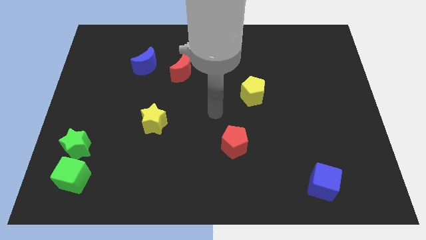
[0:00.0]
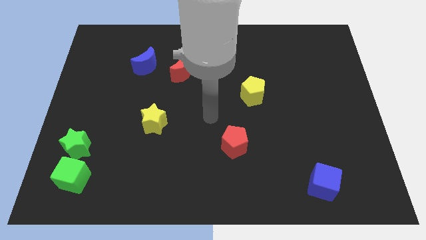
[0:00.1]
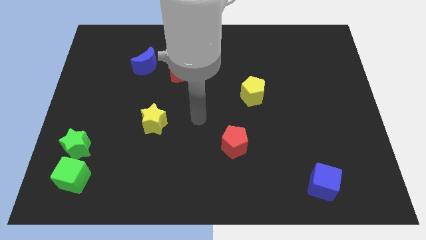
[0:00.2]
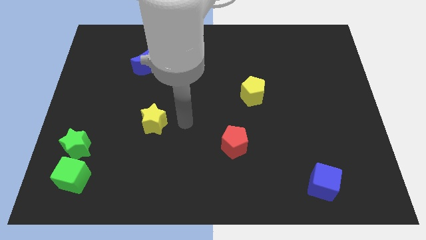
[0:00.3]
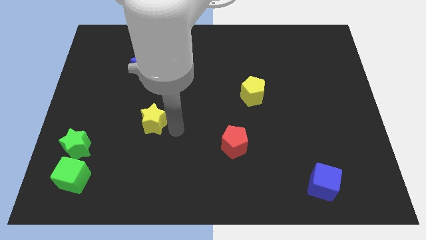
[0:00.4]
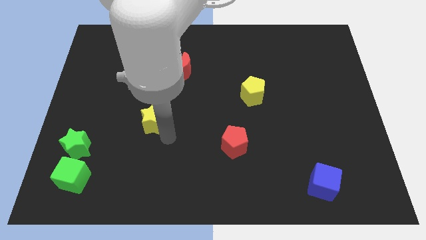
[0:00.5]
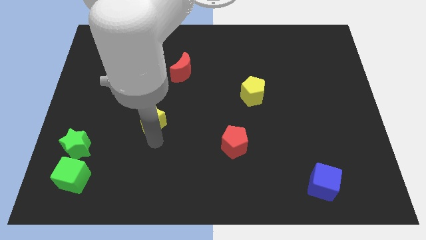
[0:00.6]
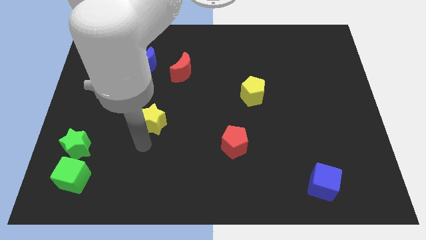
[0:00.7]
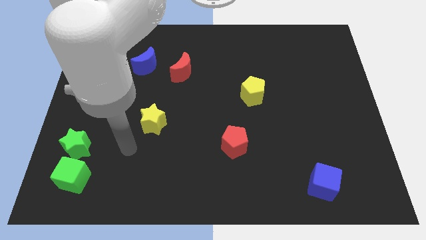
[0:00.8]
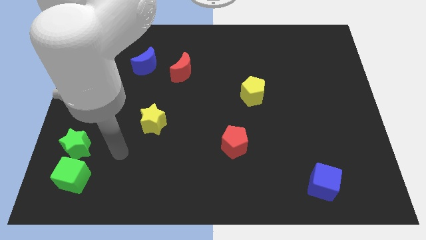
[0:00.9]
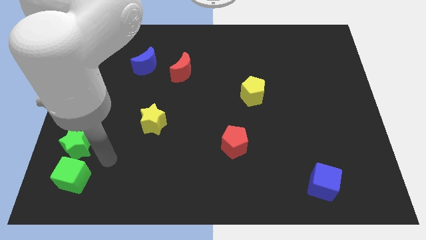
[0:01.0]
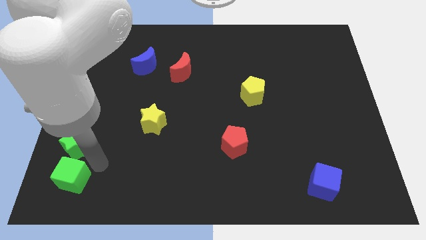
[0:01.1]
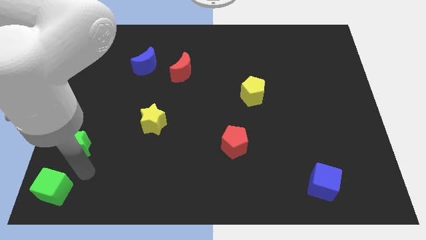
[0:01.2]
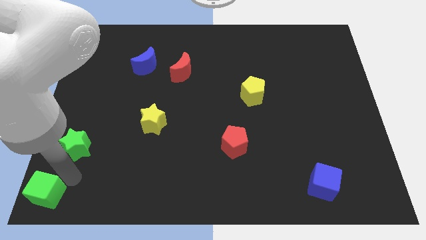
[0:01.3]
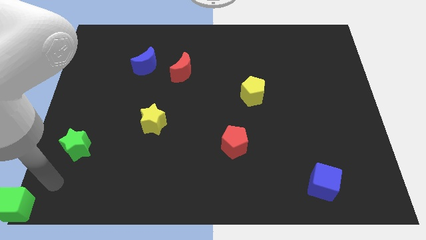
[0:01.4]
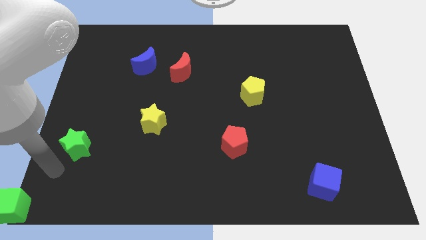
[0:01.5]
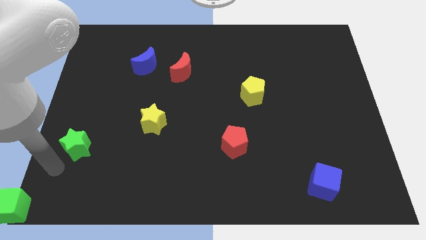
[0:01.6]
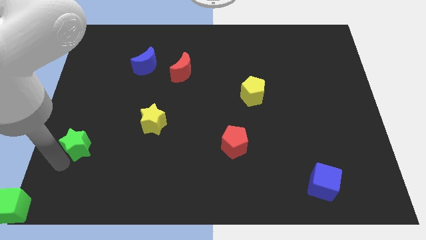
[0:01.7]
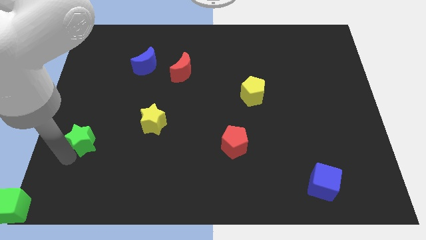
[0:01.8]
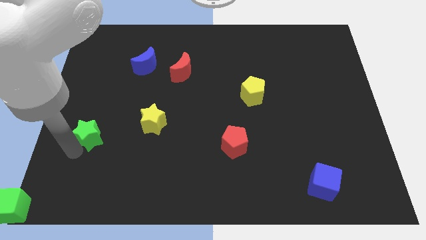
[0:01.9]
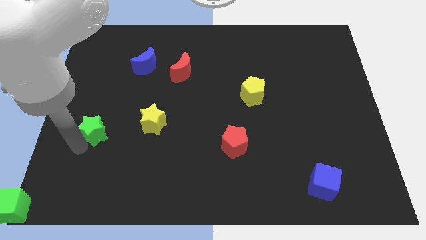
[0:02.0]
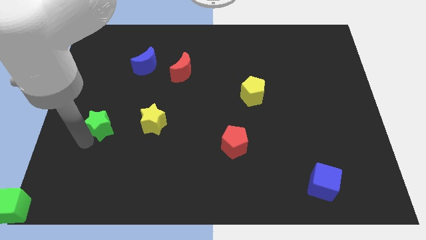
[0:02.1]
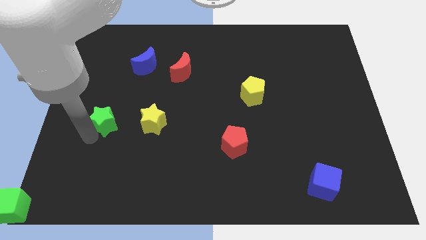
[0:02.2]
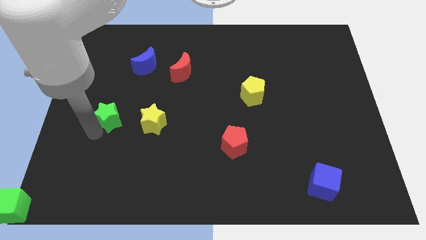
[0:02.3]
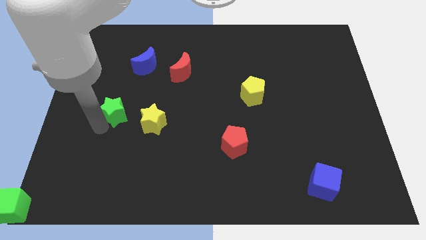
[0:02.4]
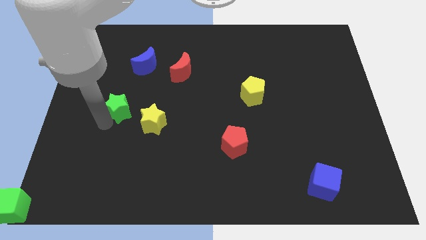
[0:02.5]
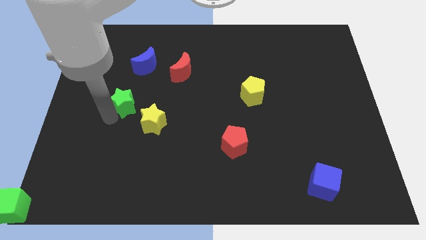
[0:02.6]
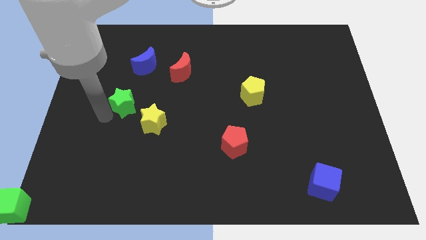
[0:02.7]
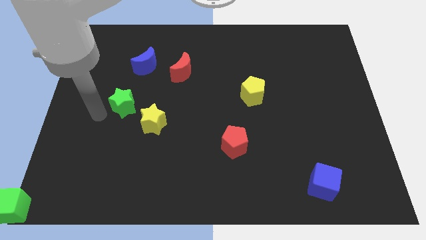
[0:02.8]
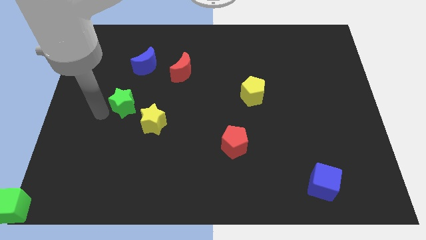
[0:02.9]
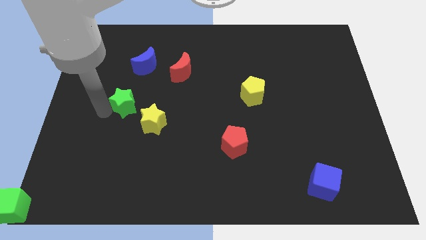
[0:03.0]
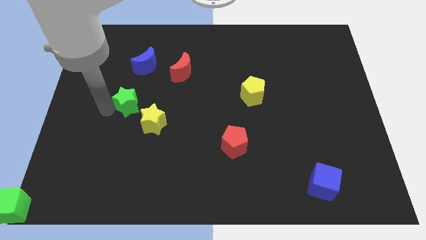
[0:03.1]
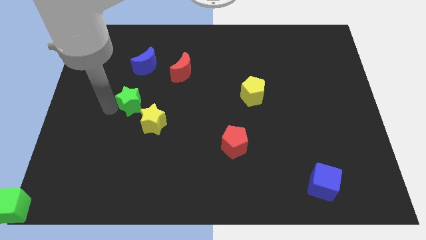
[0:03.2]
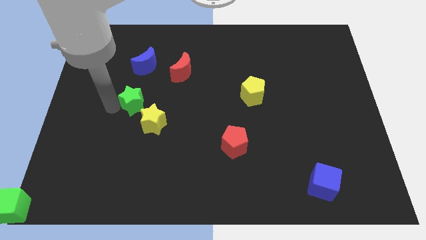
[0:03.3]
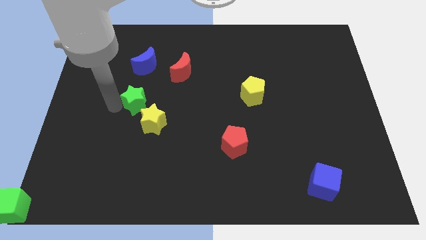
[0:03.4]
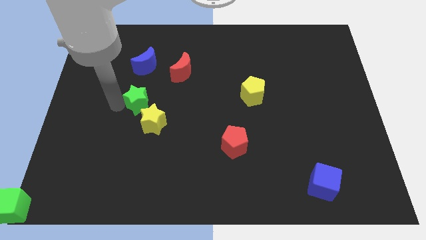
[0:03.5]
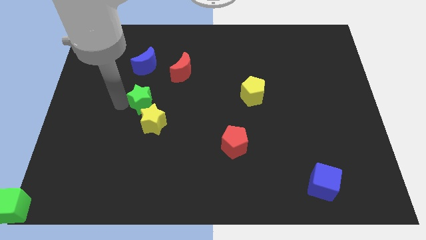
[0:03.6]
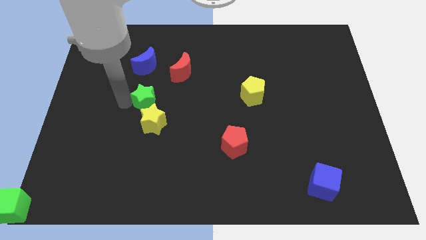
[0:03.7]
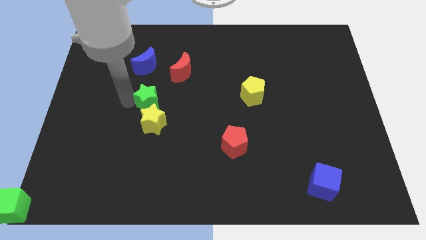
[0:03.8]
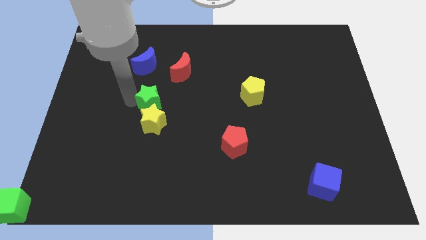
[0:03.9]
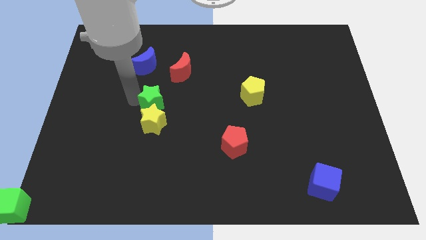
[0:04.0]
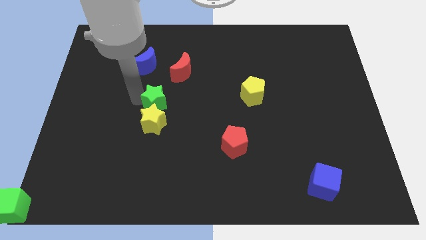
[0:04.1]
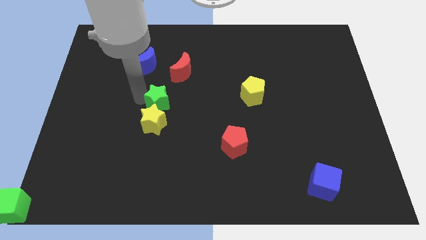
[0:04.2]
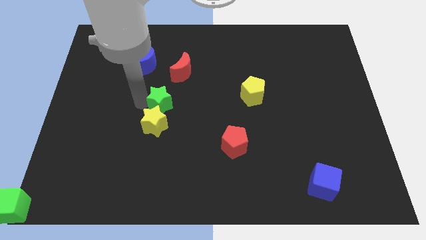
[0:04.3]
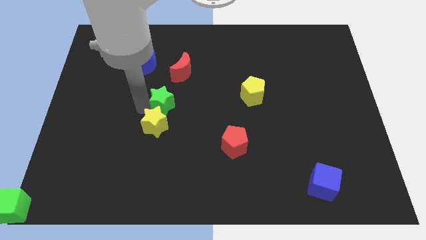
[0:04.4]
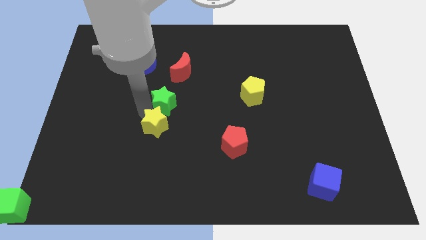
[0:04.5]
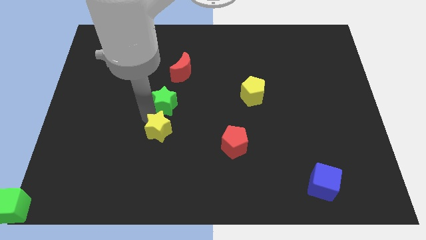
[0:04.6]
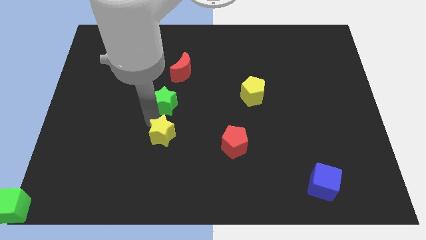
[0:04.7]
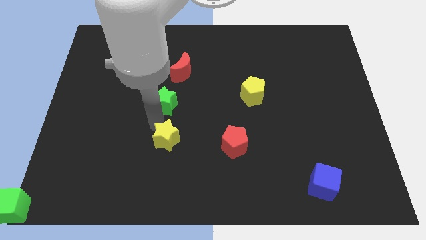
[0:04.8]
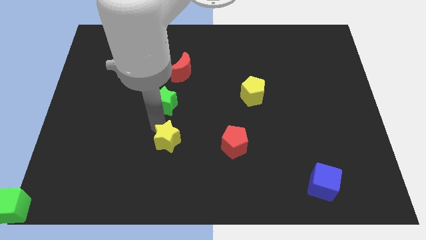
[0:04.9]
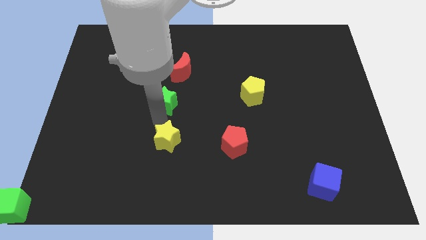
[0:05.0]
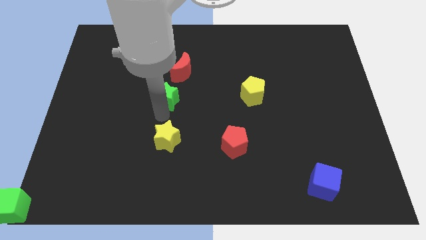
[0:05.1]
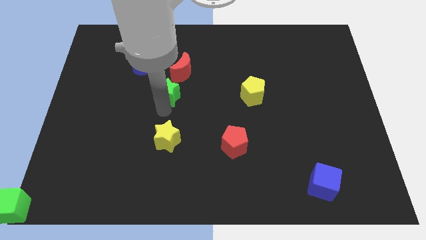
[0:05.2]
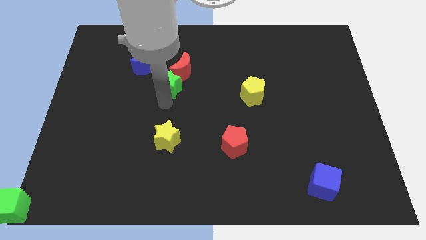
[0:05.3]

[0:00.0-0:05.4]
move the green star next to the red moon
